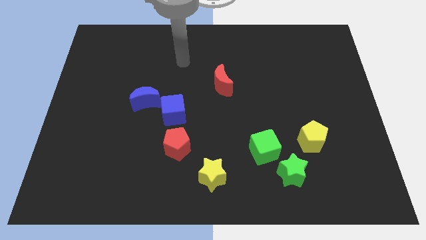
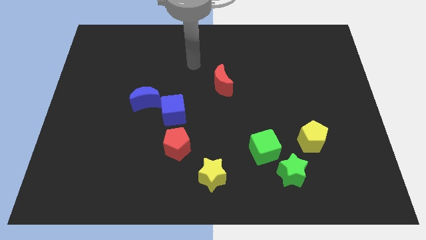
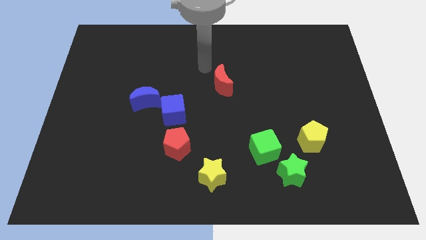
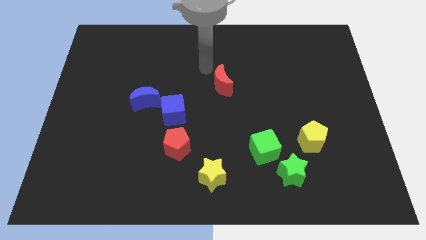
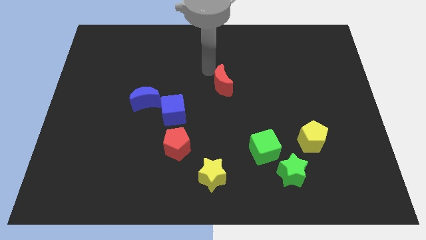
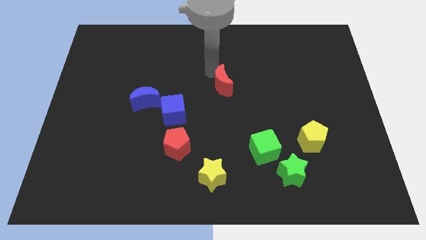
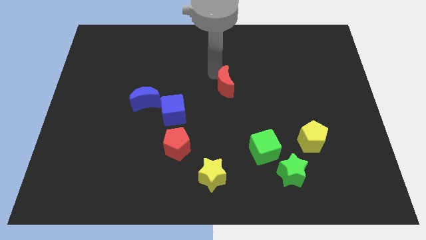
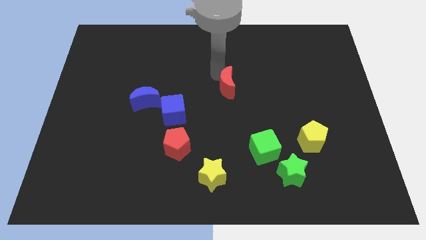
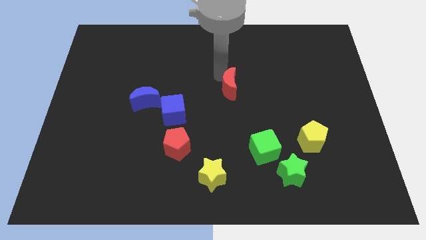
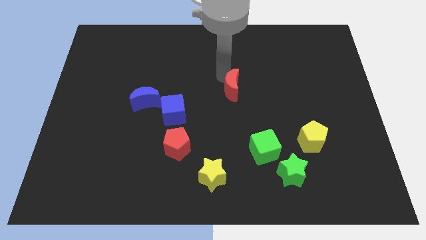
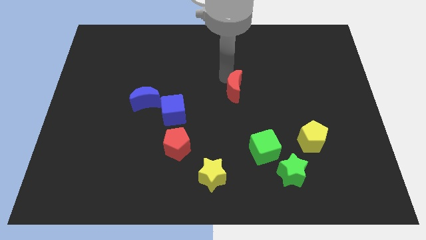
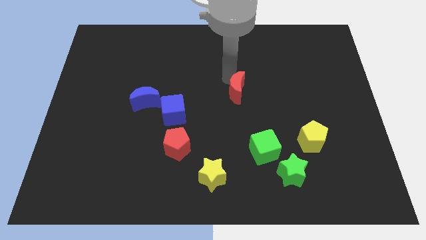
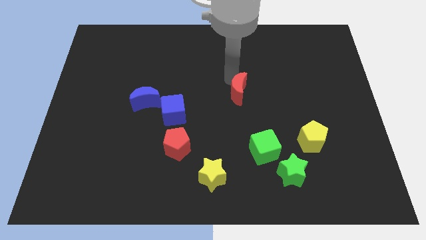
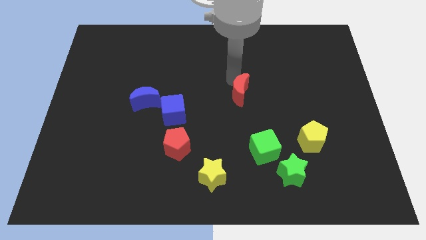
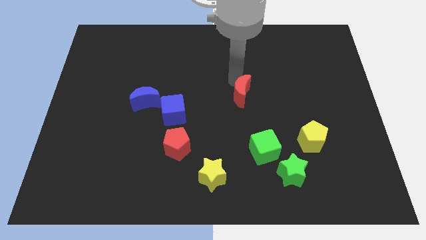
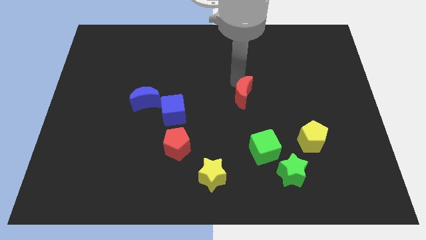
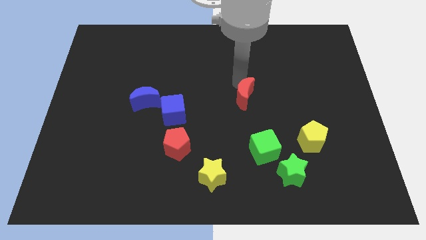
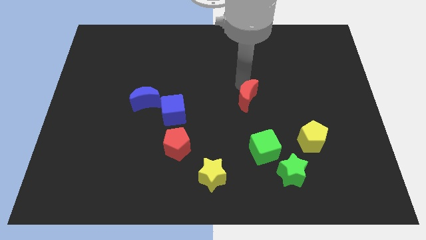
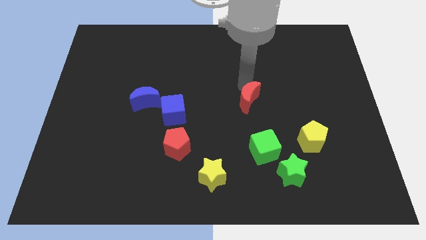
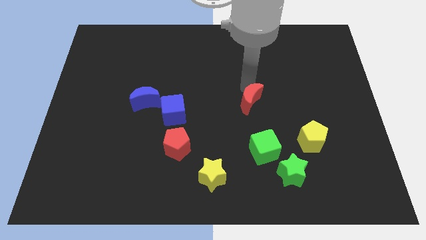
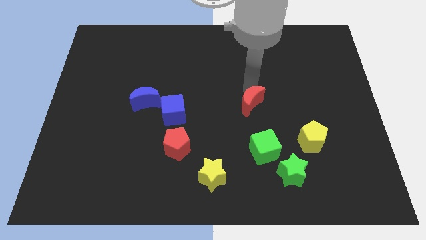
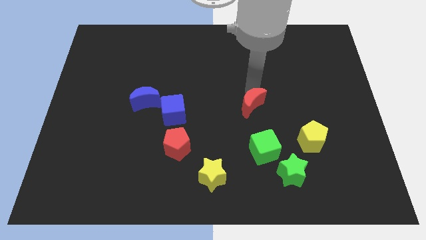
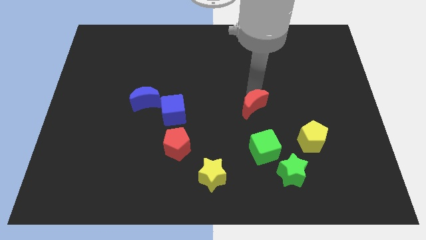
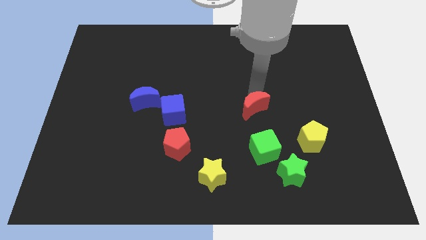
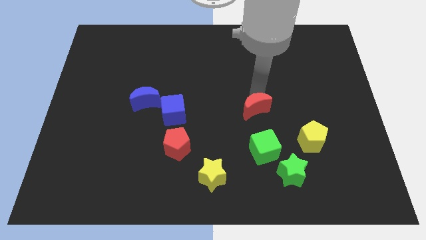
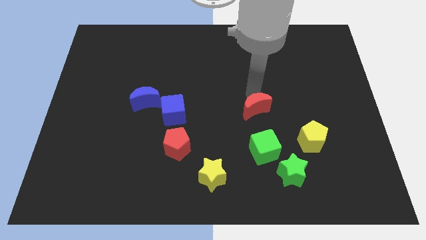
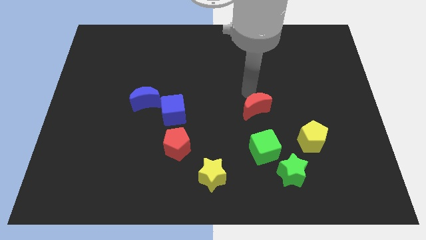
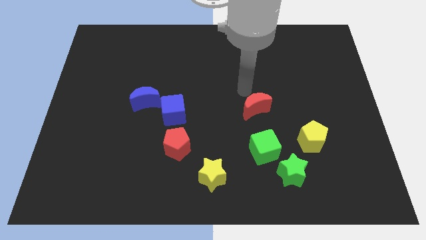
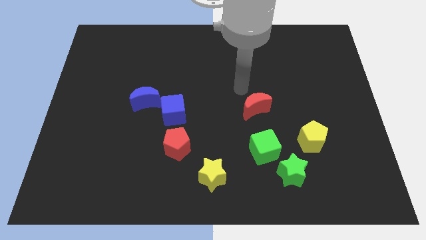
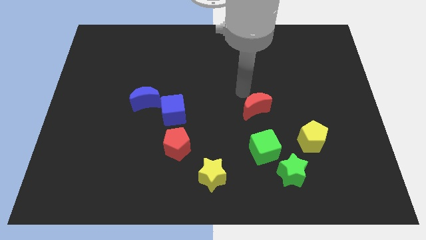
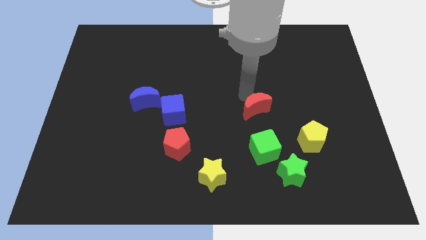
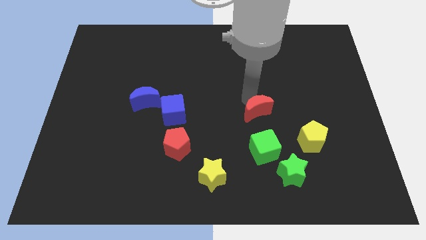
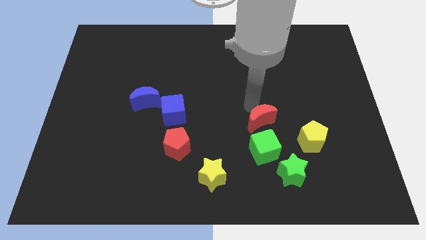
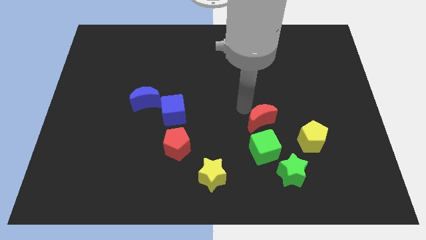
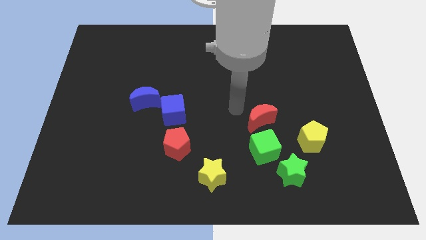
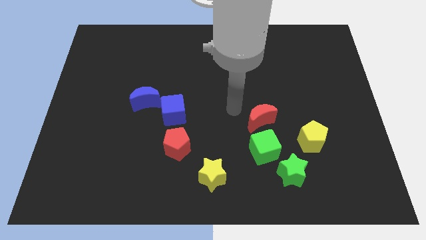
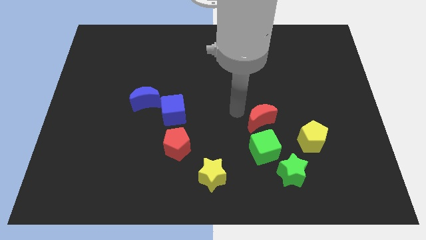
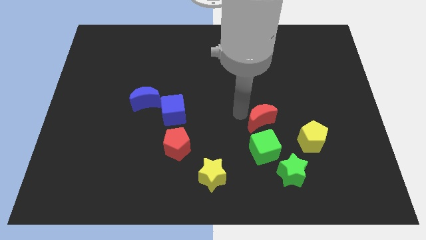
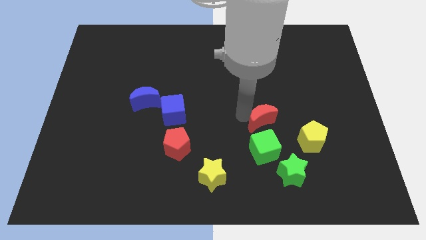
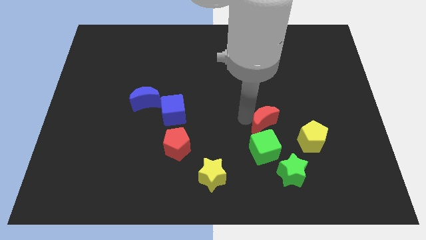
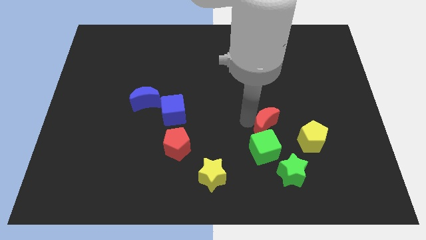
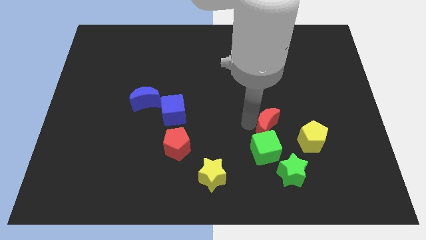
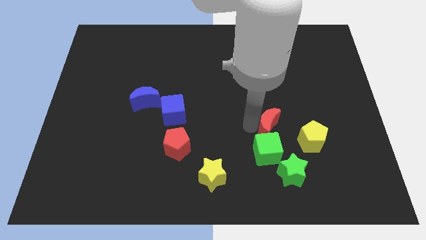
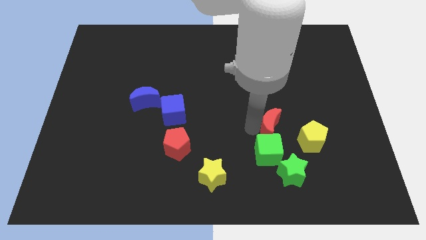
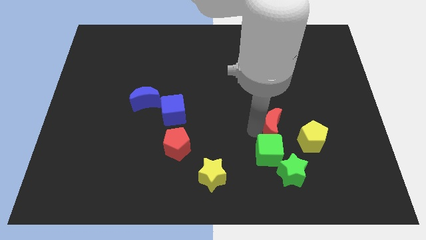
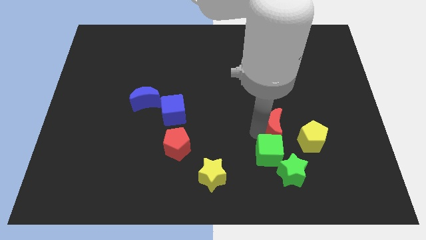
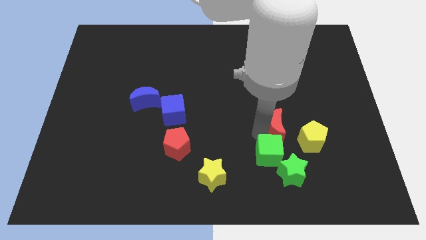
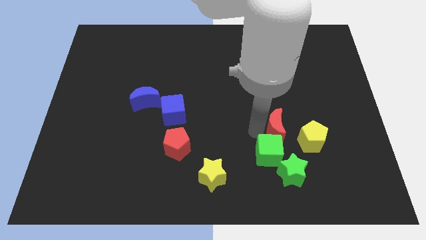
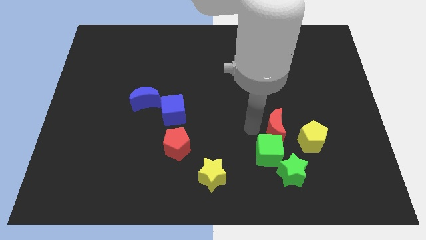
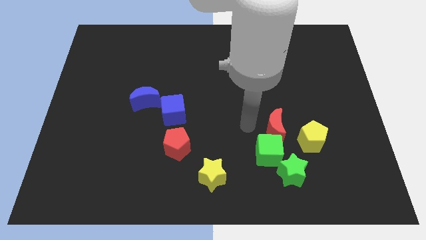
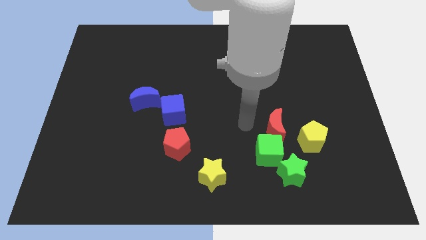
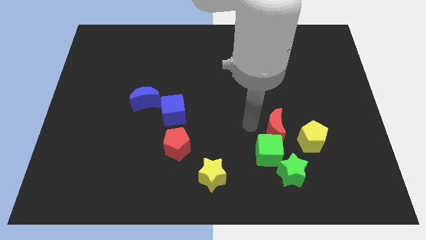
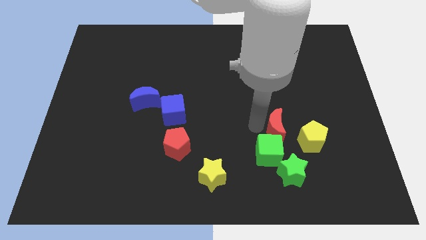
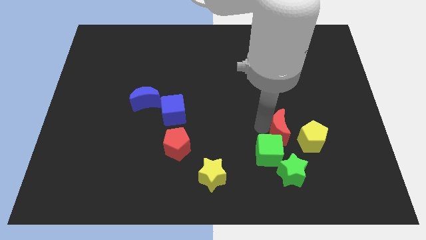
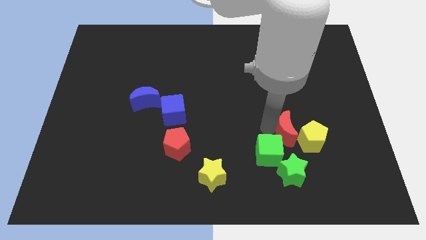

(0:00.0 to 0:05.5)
push the red moon close to the yellow pentagon

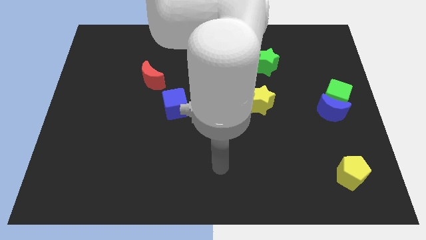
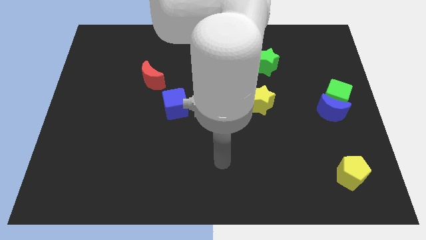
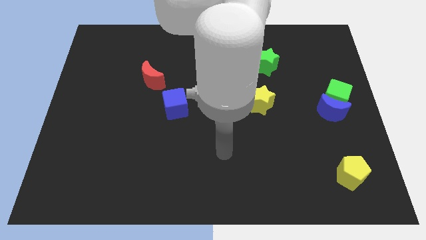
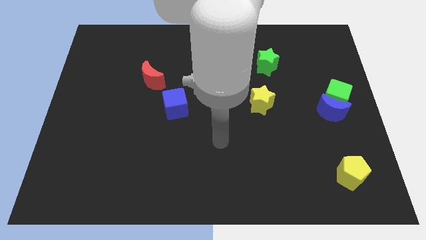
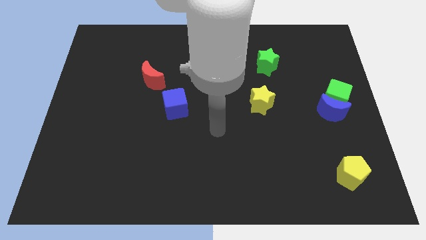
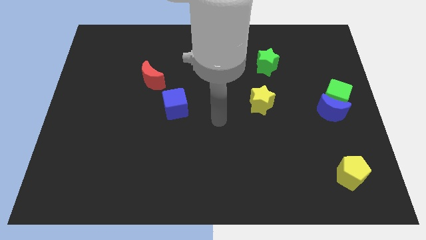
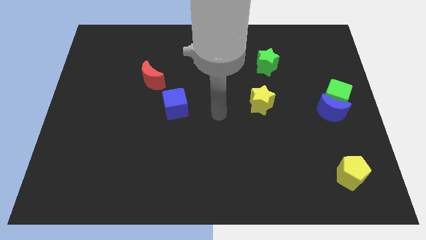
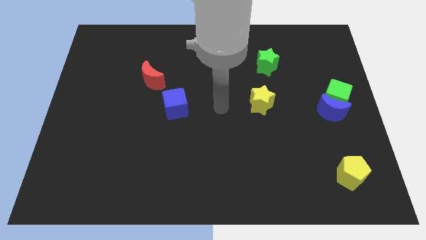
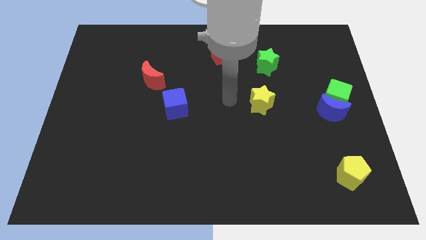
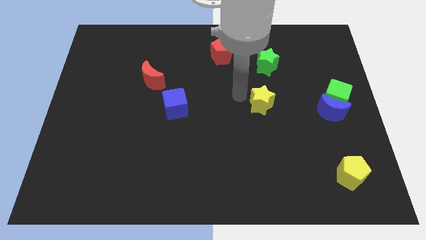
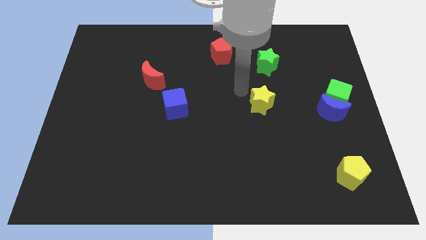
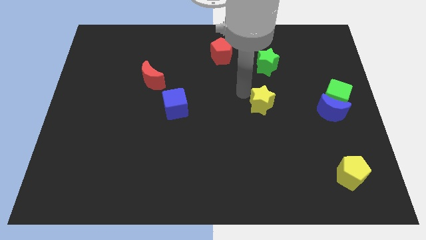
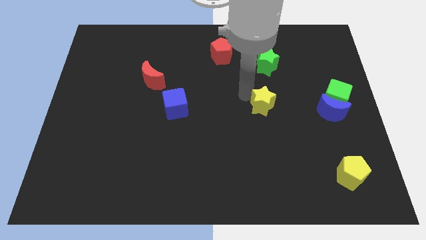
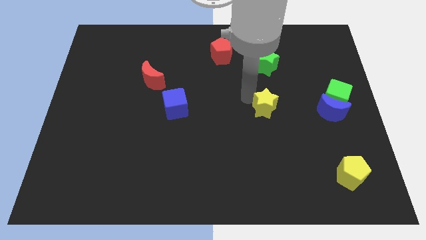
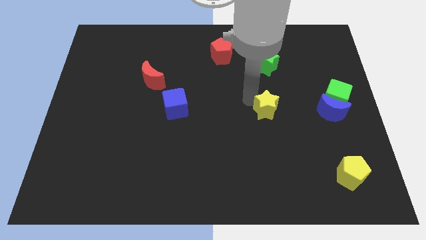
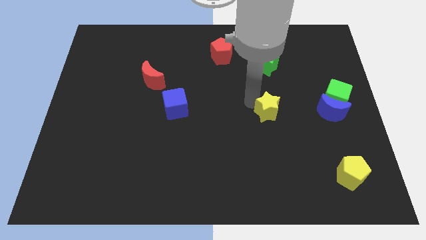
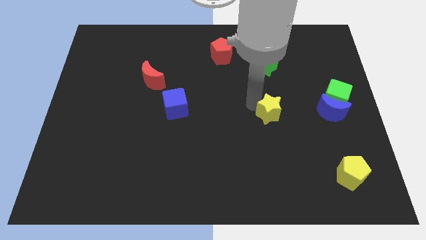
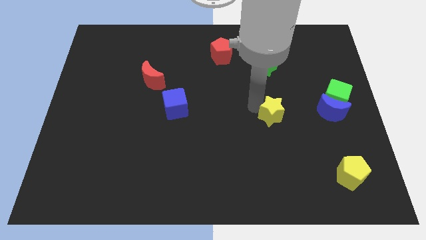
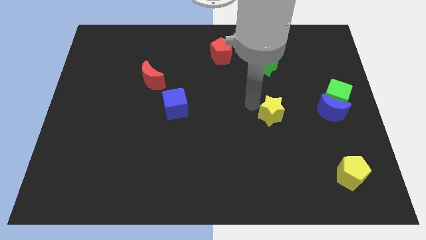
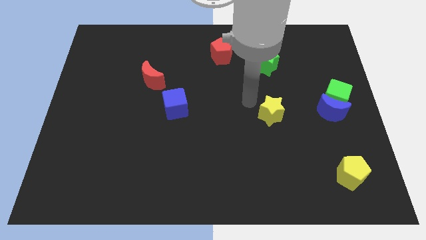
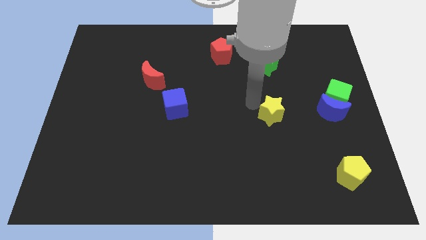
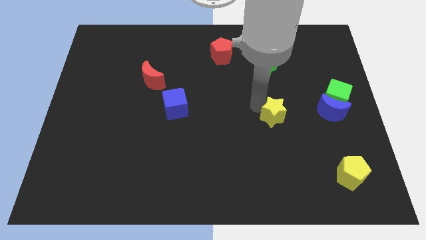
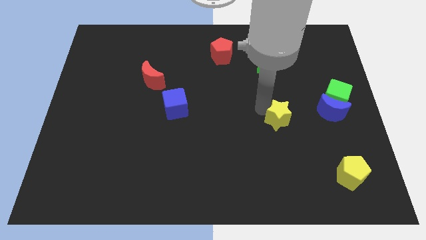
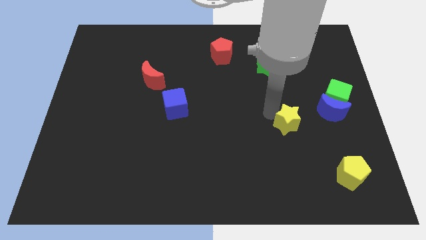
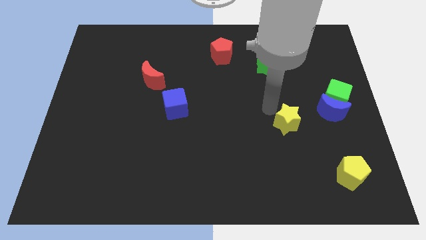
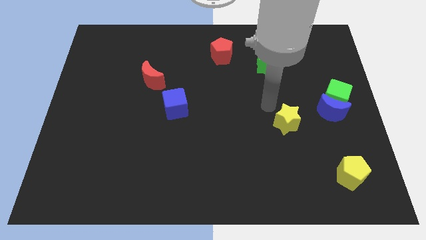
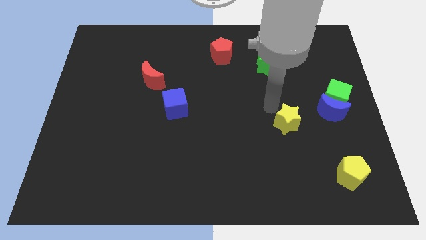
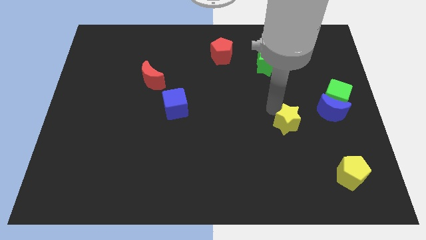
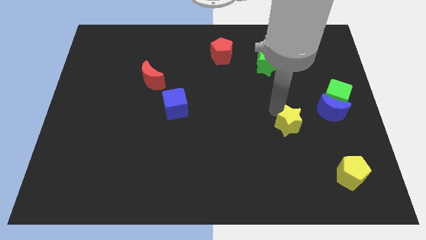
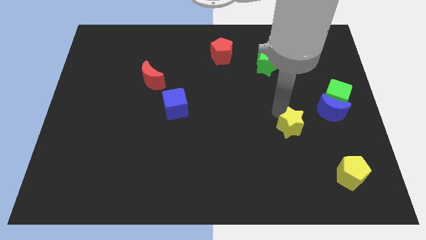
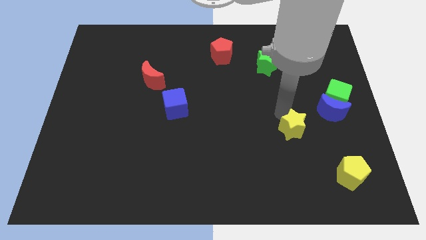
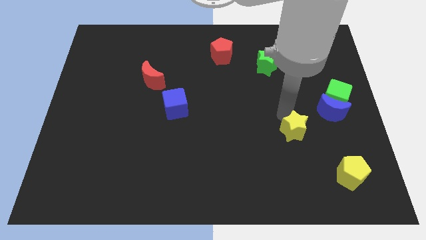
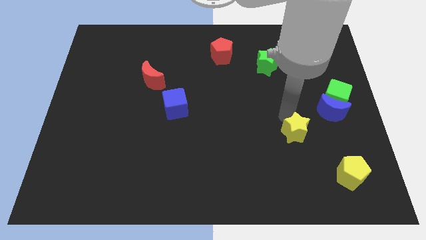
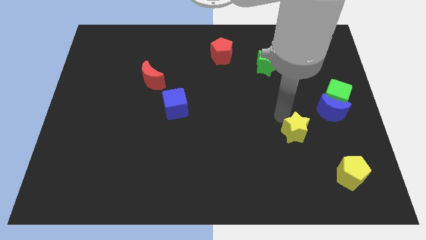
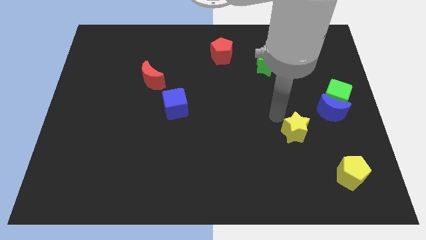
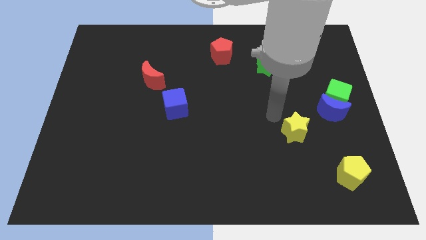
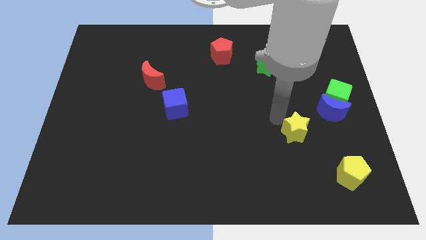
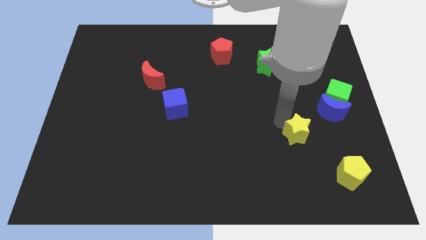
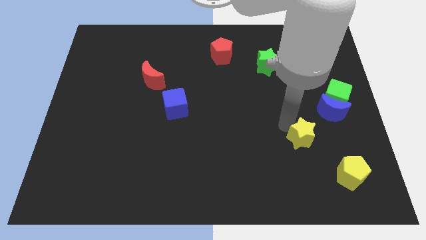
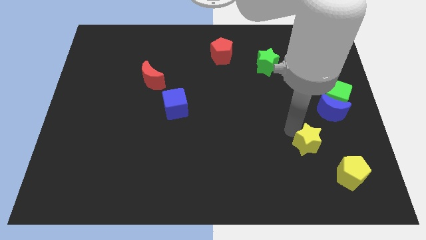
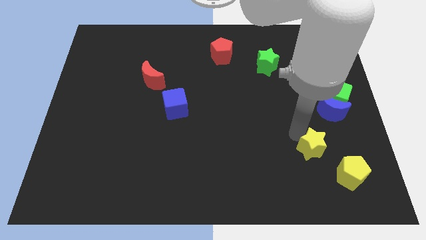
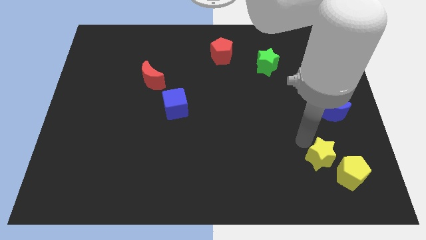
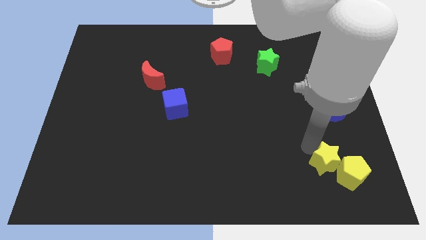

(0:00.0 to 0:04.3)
push the yellow star close to the yellow pentagon
